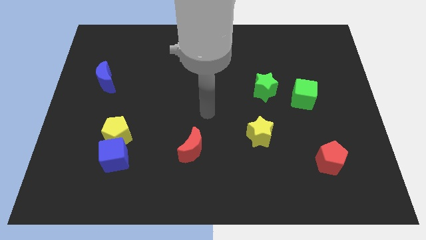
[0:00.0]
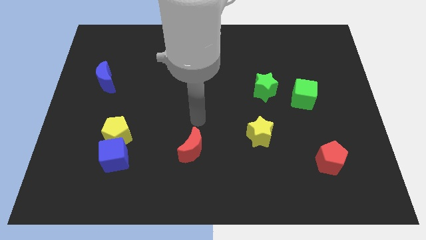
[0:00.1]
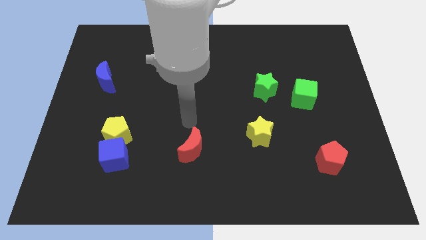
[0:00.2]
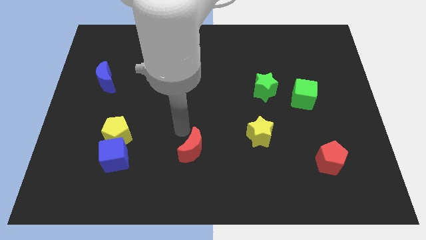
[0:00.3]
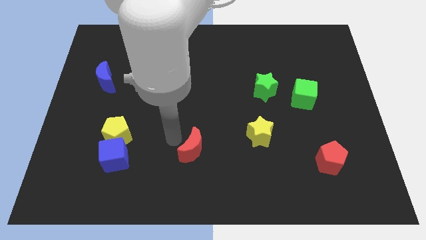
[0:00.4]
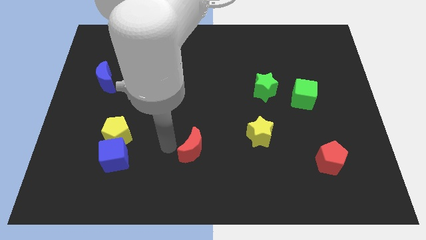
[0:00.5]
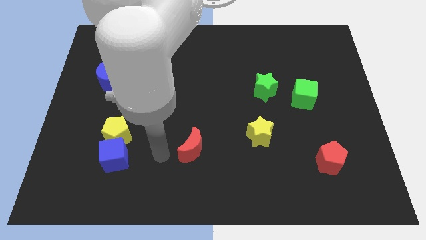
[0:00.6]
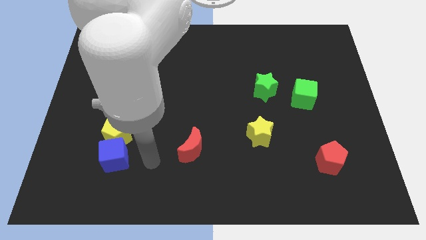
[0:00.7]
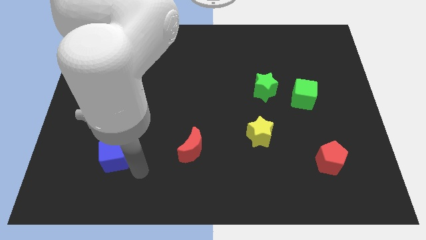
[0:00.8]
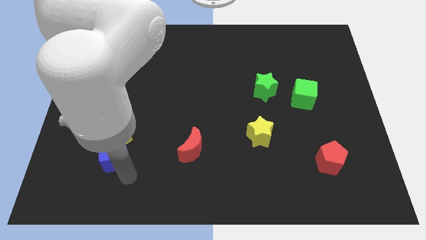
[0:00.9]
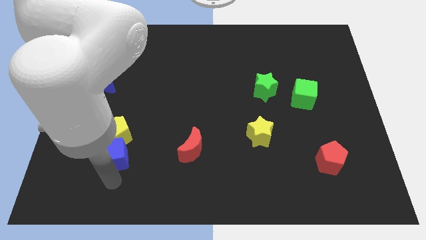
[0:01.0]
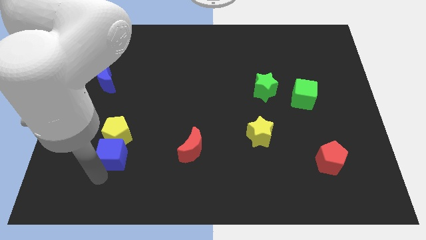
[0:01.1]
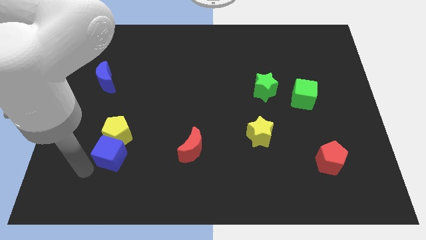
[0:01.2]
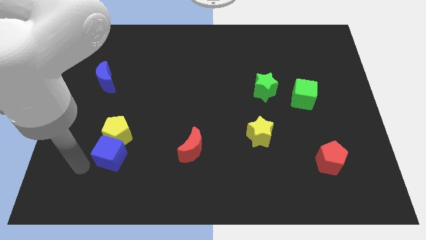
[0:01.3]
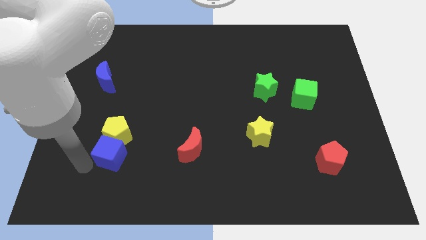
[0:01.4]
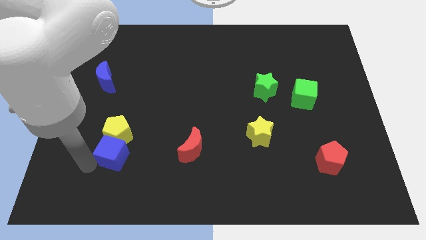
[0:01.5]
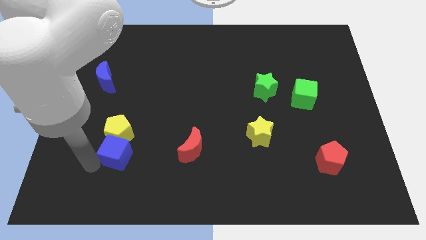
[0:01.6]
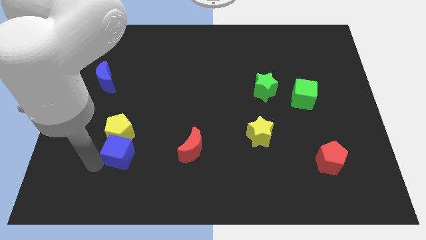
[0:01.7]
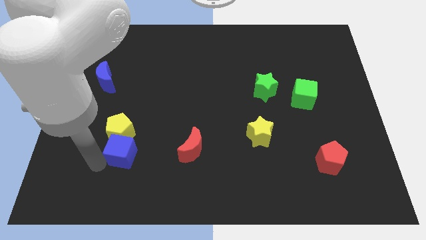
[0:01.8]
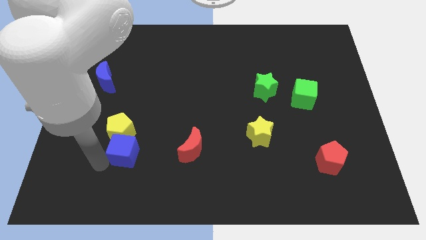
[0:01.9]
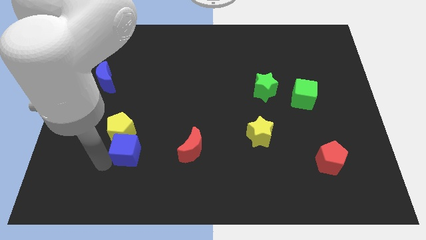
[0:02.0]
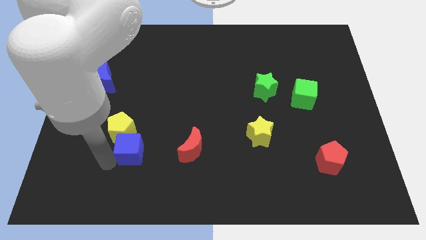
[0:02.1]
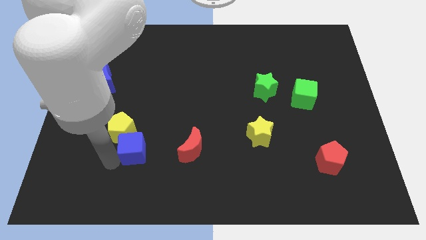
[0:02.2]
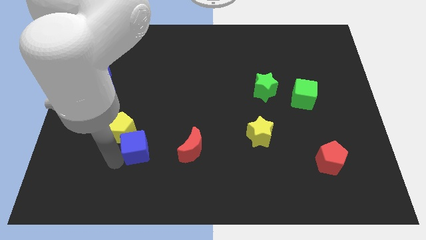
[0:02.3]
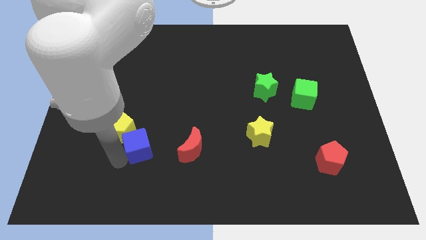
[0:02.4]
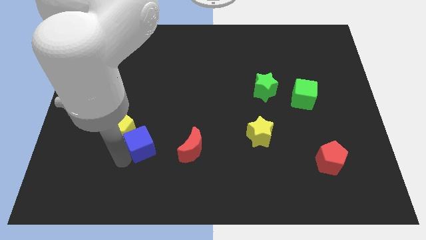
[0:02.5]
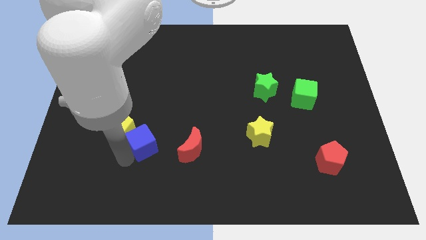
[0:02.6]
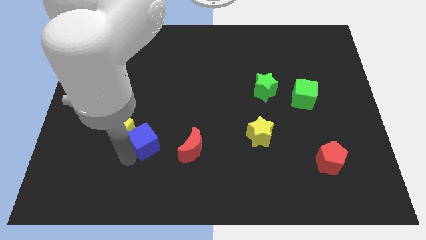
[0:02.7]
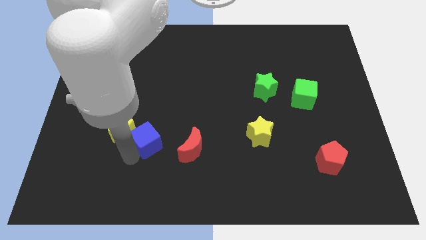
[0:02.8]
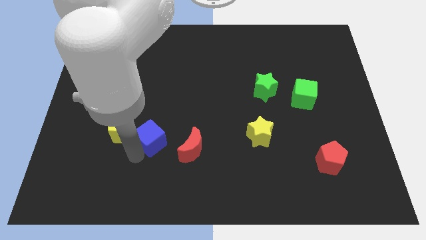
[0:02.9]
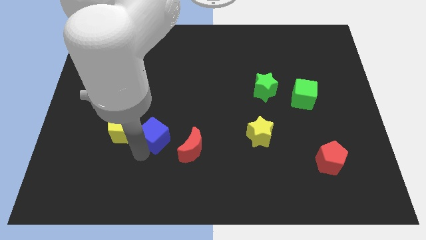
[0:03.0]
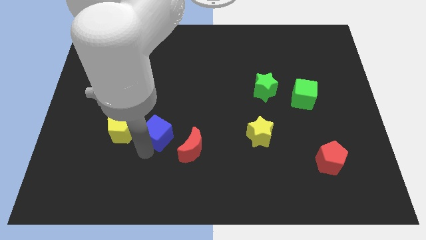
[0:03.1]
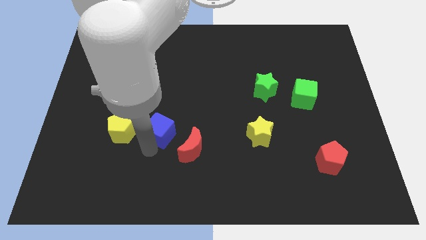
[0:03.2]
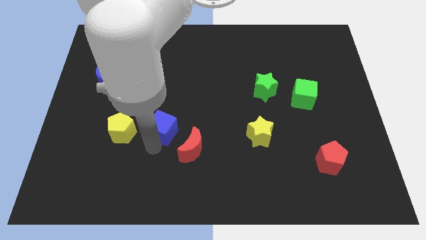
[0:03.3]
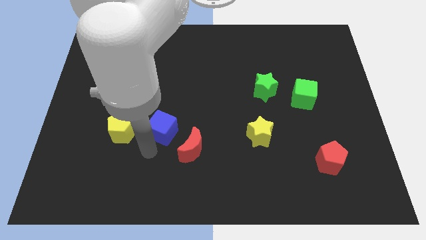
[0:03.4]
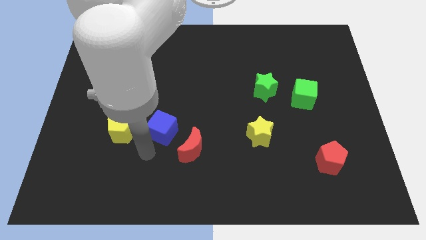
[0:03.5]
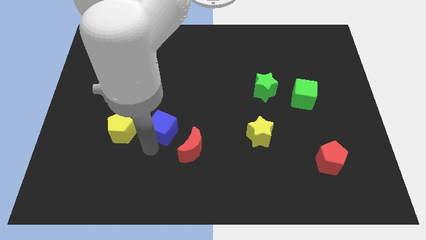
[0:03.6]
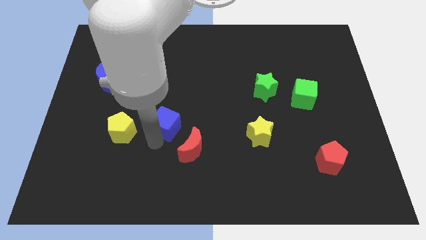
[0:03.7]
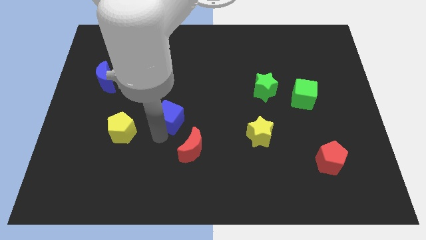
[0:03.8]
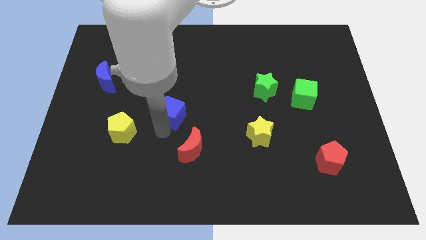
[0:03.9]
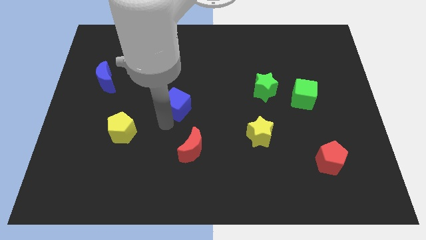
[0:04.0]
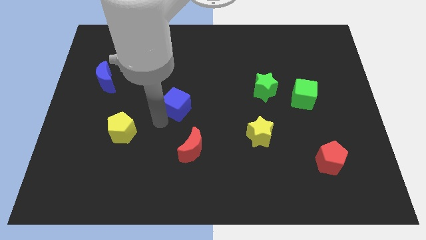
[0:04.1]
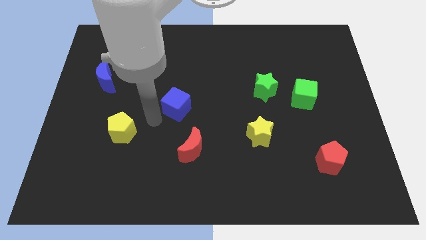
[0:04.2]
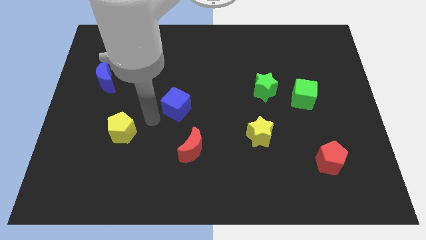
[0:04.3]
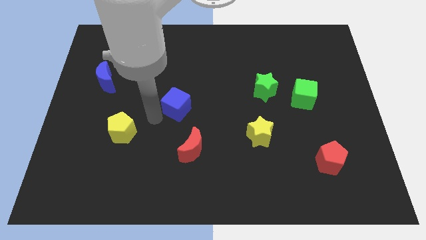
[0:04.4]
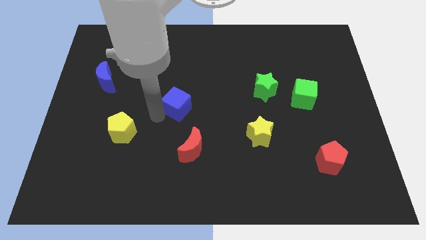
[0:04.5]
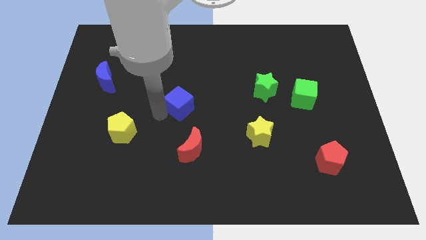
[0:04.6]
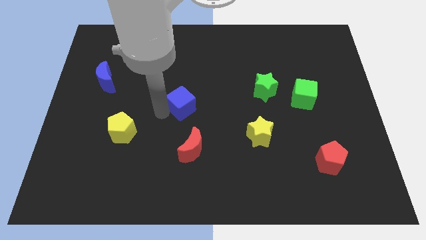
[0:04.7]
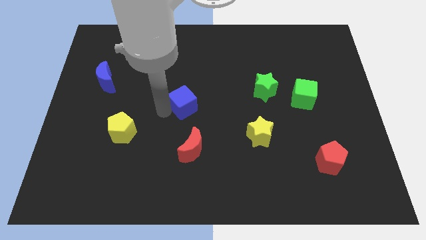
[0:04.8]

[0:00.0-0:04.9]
push the blue cube up and to the right diagonally

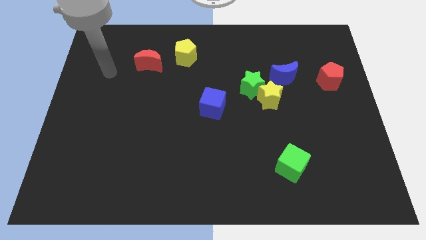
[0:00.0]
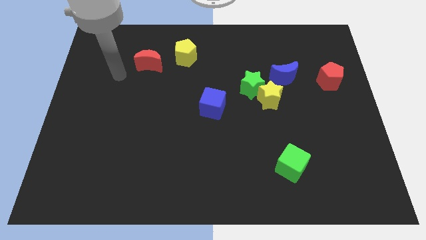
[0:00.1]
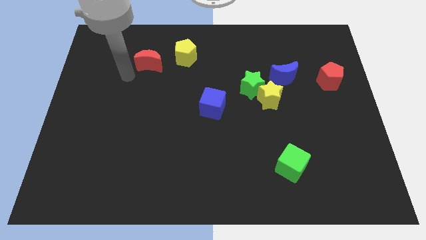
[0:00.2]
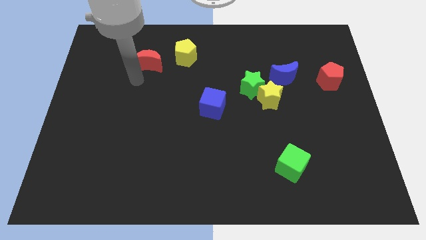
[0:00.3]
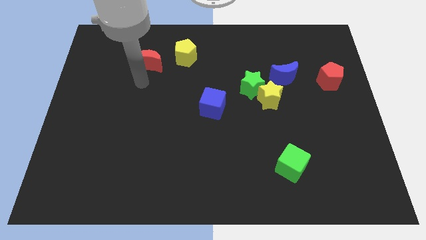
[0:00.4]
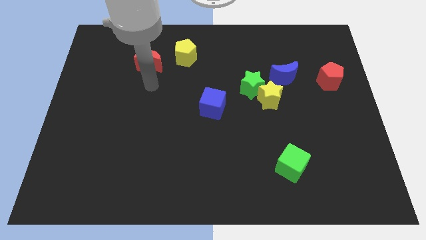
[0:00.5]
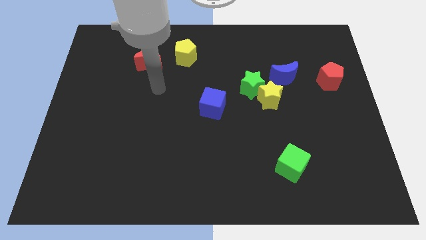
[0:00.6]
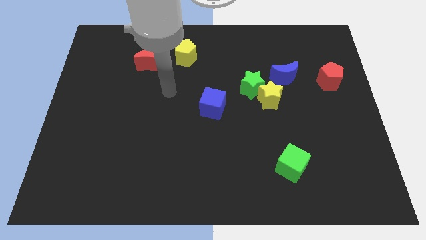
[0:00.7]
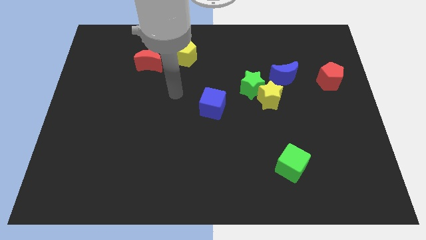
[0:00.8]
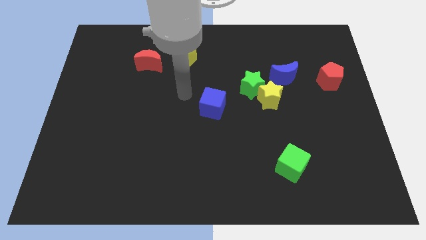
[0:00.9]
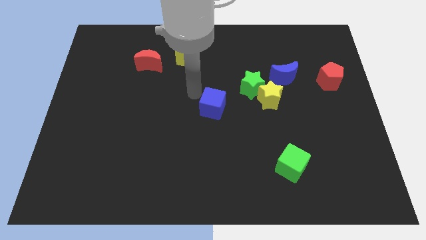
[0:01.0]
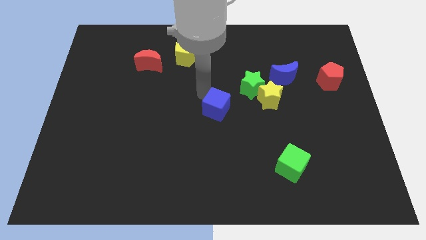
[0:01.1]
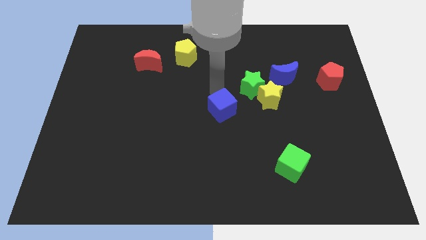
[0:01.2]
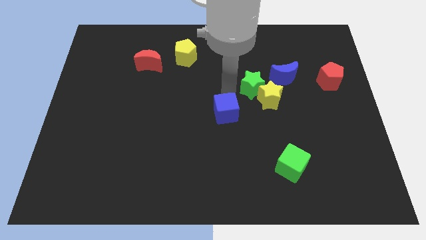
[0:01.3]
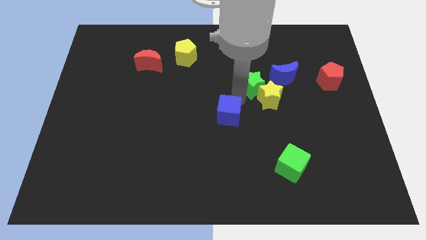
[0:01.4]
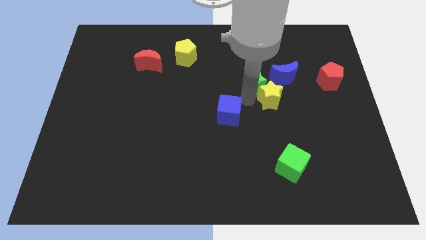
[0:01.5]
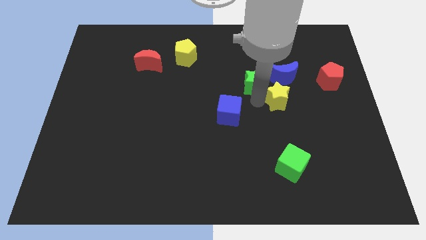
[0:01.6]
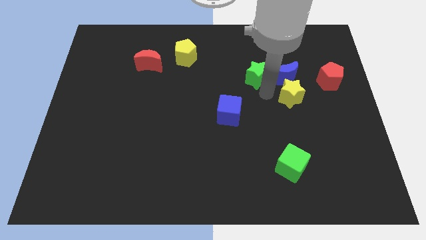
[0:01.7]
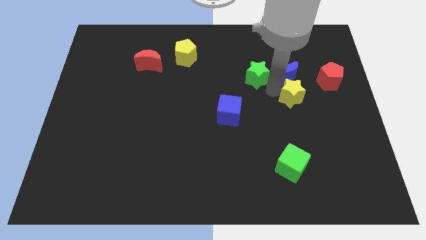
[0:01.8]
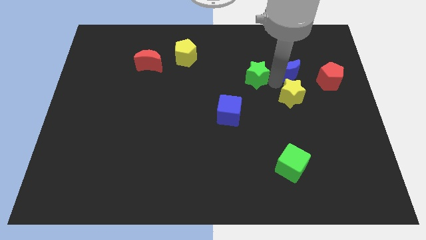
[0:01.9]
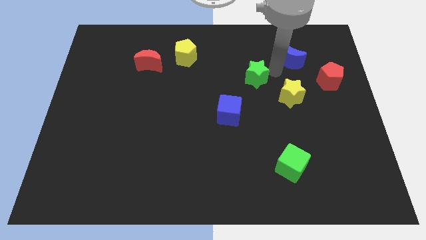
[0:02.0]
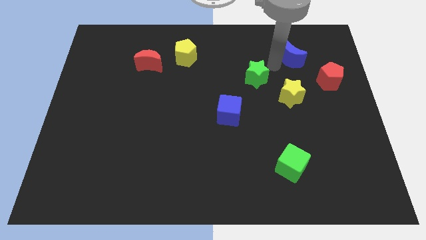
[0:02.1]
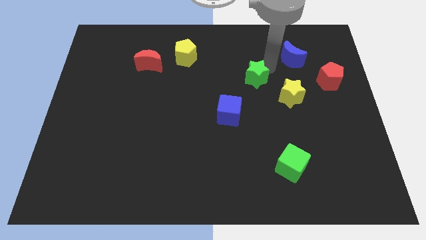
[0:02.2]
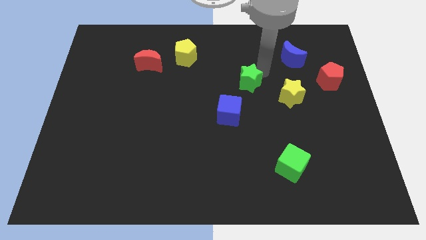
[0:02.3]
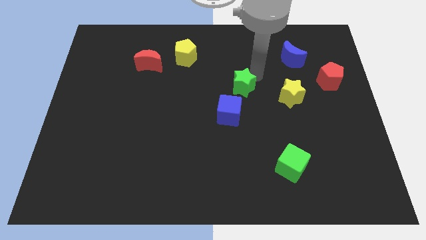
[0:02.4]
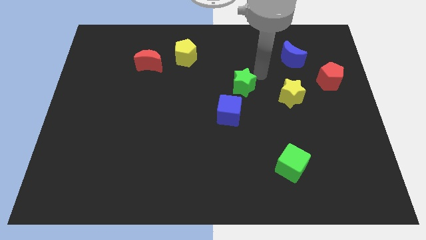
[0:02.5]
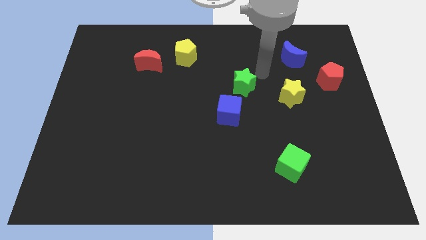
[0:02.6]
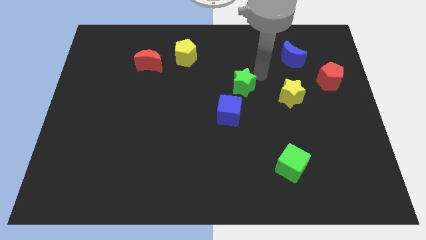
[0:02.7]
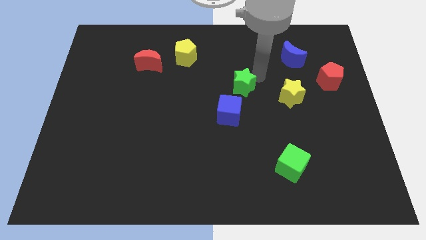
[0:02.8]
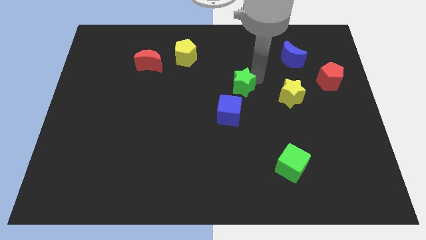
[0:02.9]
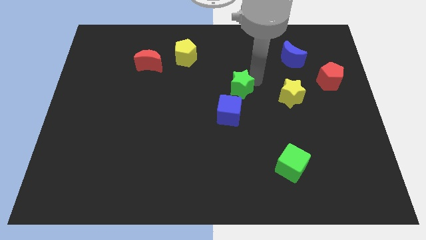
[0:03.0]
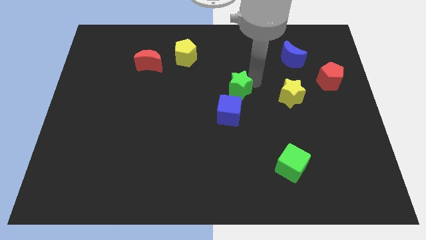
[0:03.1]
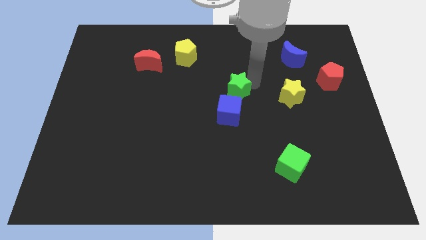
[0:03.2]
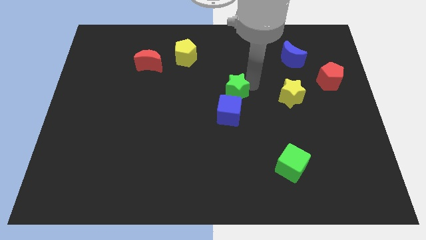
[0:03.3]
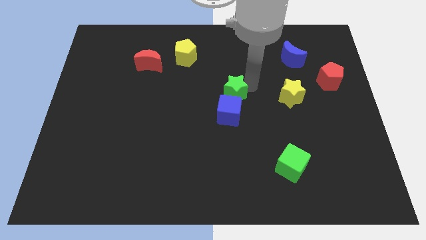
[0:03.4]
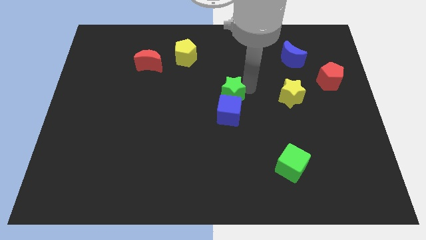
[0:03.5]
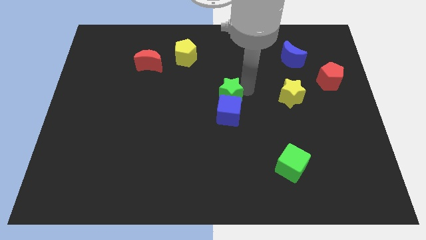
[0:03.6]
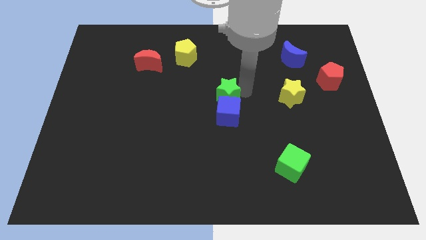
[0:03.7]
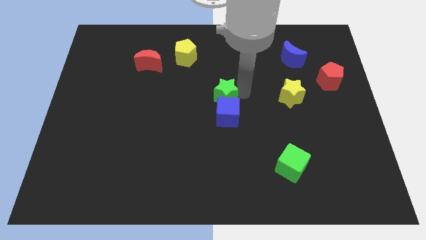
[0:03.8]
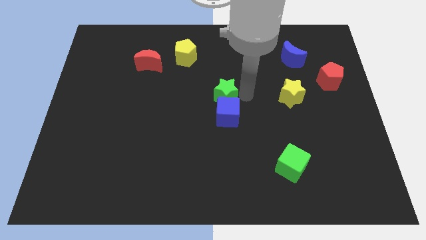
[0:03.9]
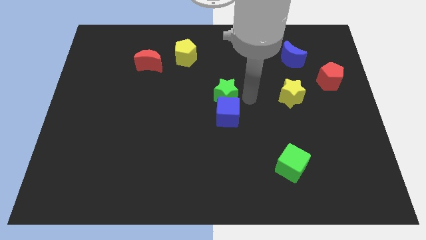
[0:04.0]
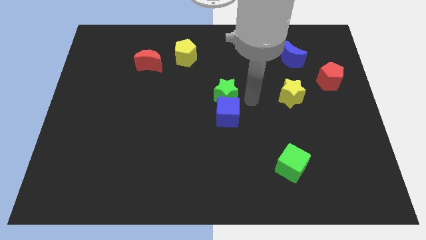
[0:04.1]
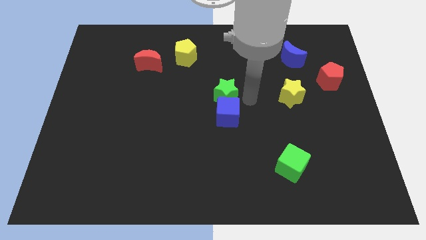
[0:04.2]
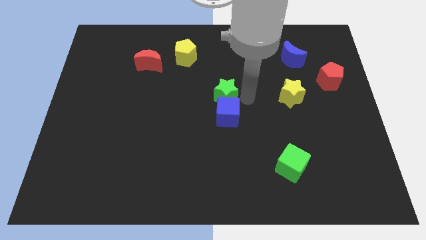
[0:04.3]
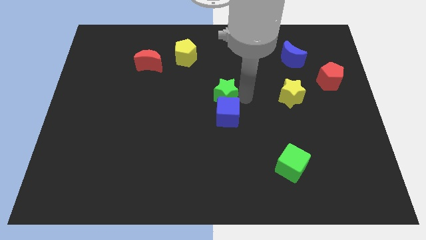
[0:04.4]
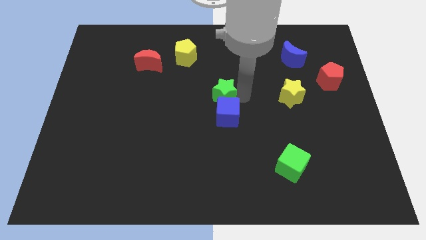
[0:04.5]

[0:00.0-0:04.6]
slide the green star to the left a little
